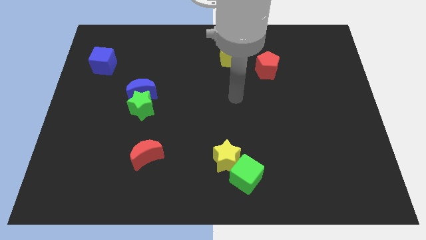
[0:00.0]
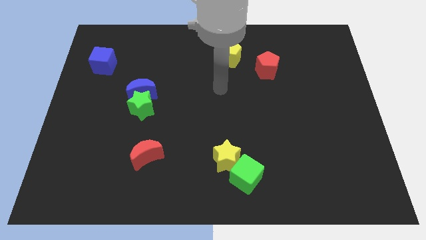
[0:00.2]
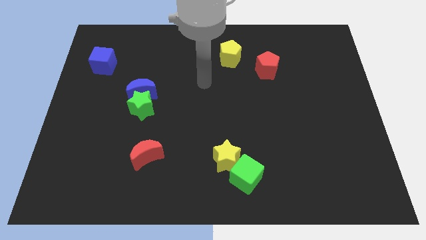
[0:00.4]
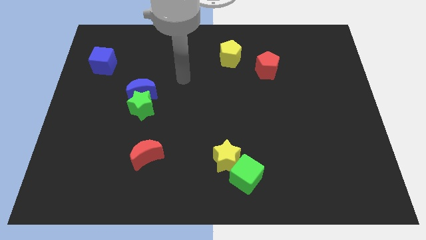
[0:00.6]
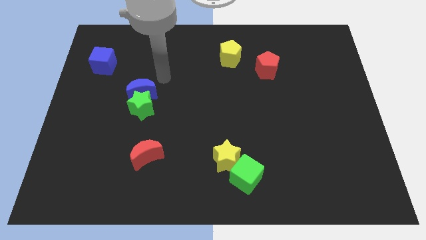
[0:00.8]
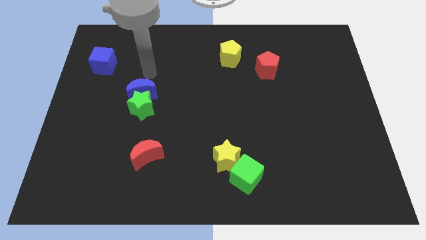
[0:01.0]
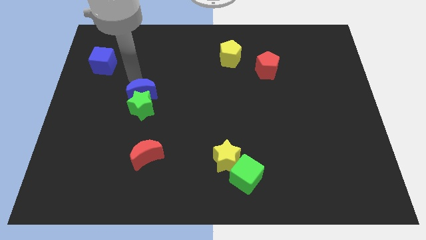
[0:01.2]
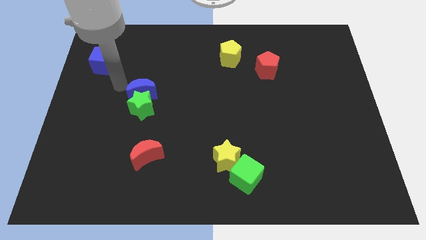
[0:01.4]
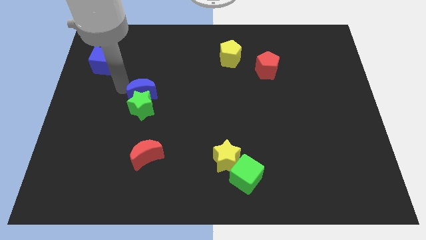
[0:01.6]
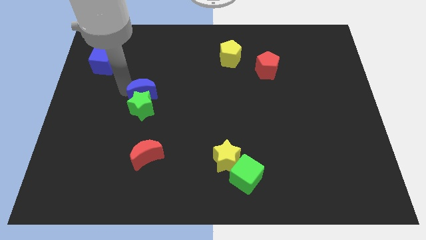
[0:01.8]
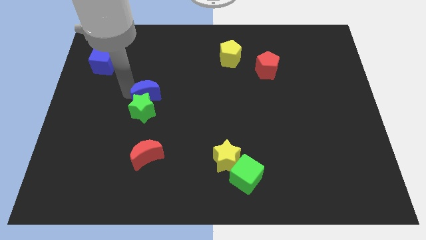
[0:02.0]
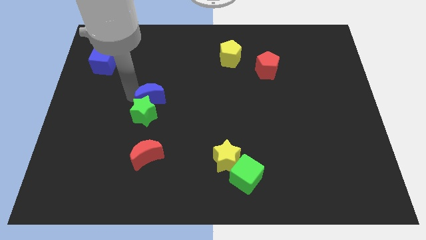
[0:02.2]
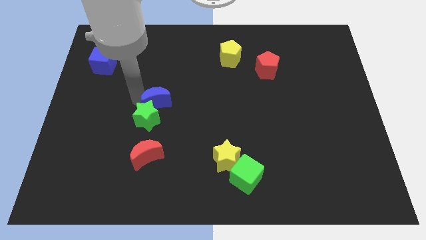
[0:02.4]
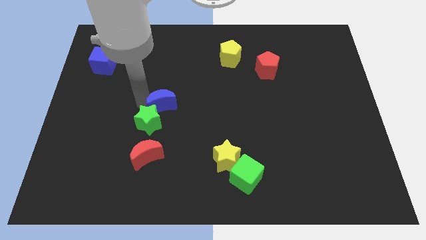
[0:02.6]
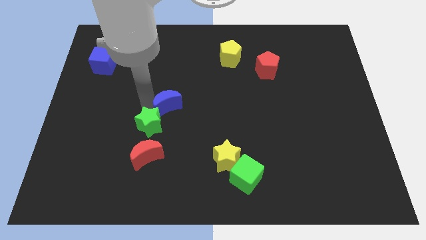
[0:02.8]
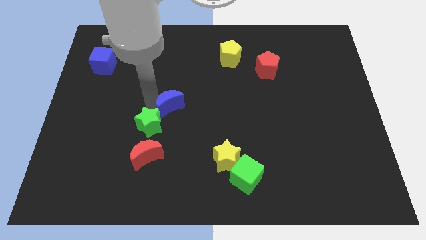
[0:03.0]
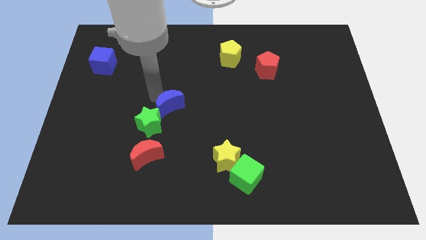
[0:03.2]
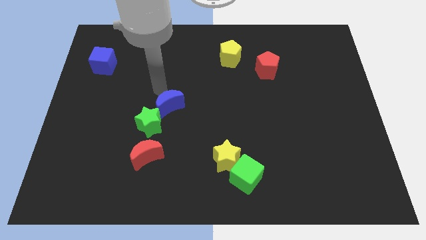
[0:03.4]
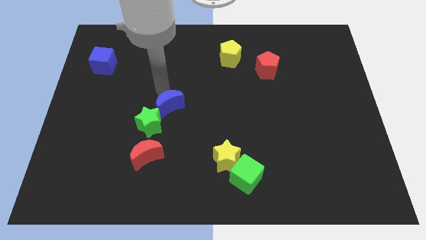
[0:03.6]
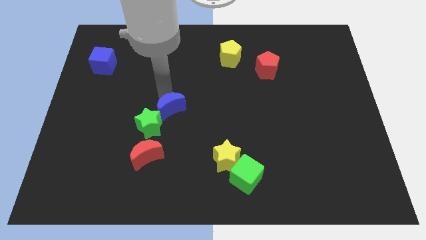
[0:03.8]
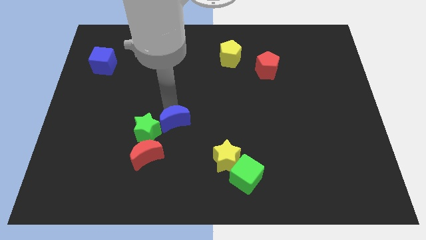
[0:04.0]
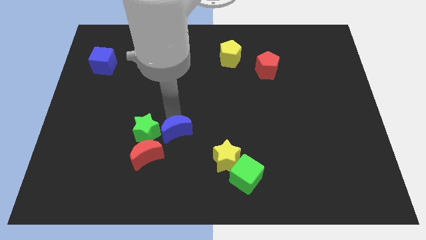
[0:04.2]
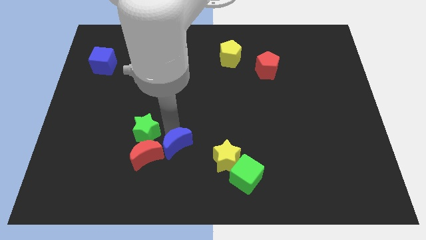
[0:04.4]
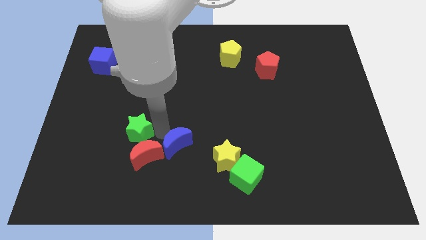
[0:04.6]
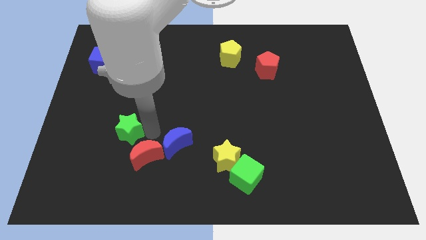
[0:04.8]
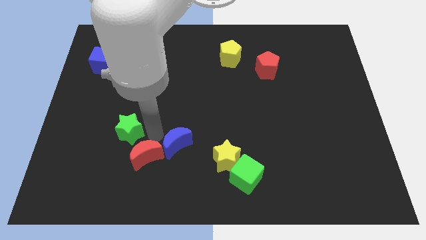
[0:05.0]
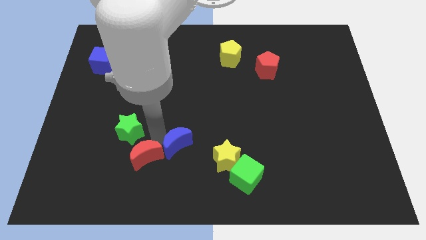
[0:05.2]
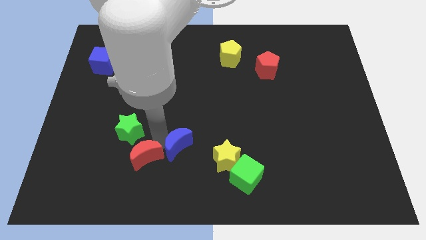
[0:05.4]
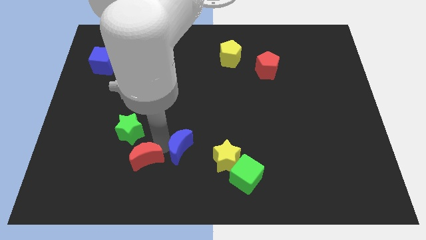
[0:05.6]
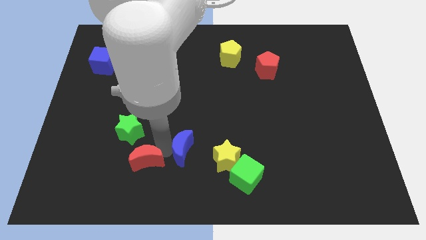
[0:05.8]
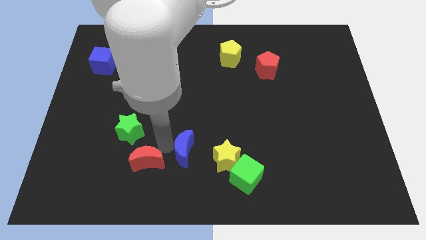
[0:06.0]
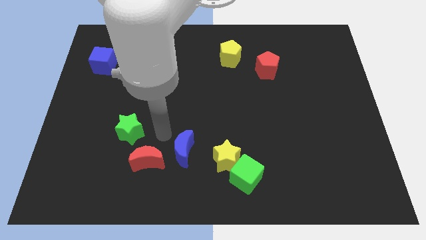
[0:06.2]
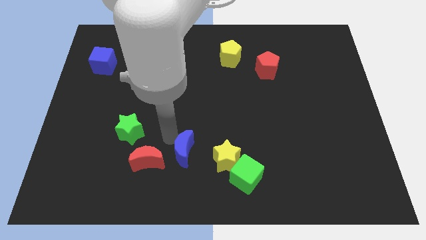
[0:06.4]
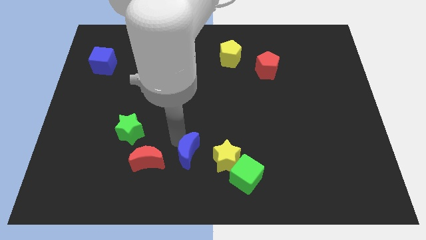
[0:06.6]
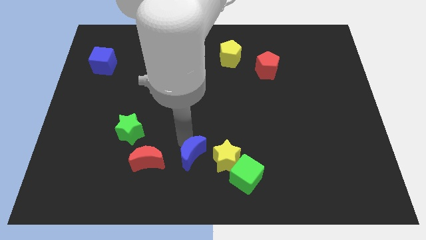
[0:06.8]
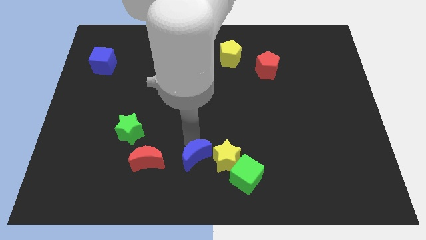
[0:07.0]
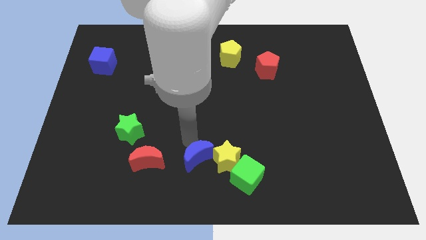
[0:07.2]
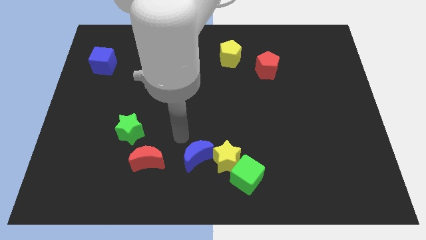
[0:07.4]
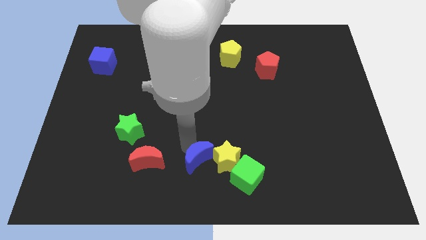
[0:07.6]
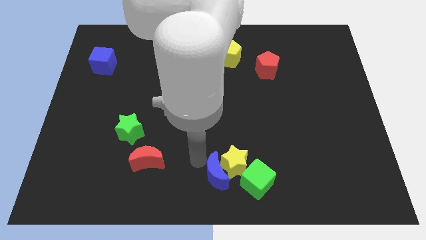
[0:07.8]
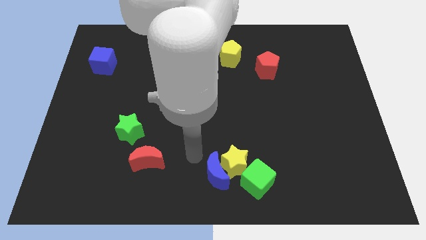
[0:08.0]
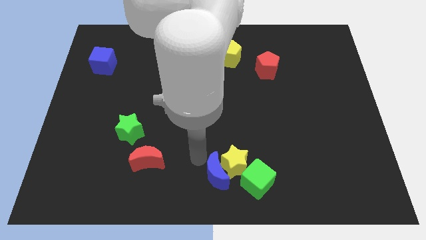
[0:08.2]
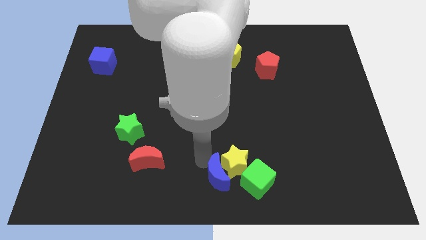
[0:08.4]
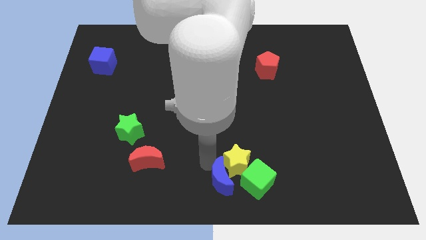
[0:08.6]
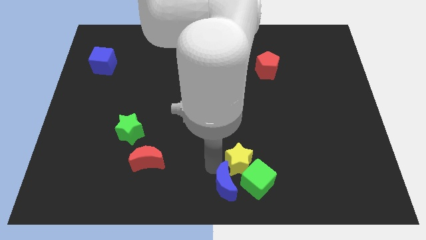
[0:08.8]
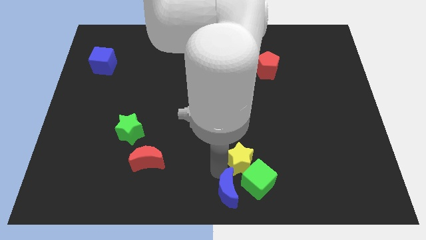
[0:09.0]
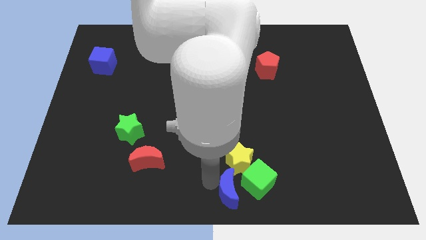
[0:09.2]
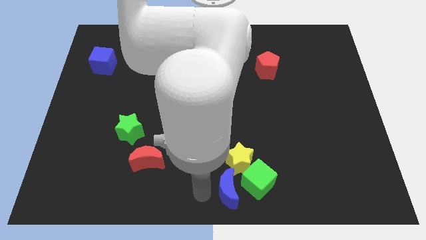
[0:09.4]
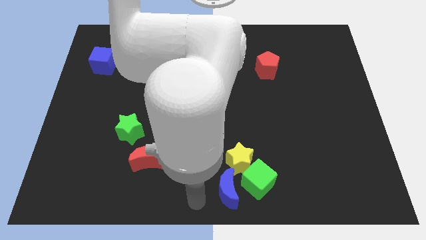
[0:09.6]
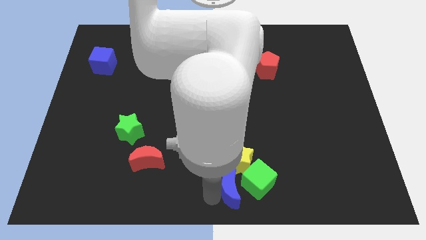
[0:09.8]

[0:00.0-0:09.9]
slide the blue moon towards the green cube

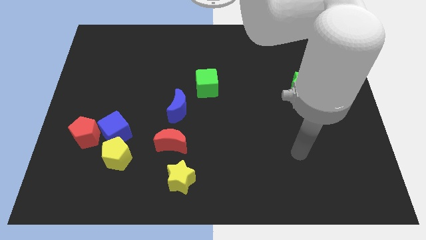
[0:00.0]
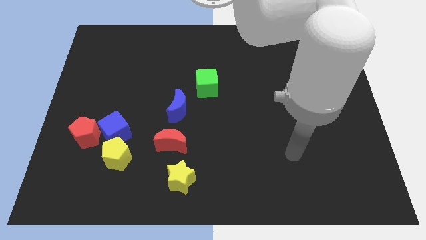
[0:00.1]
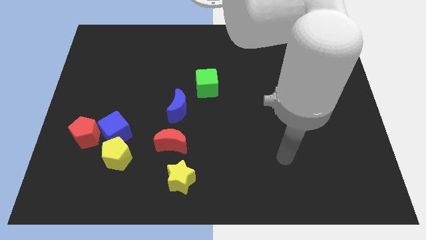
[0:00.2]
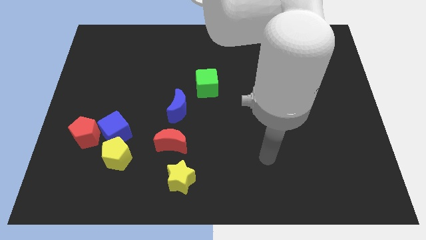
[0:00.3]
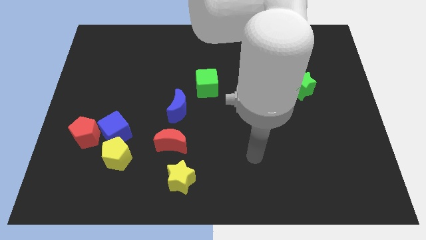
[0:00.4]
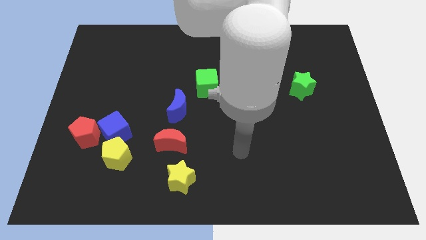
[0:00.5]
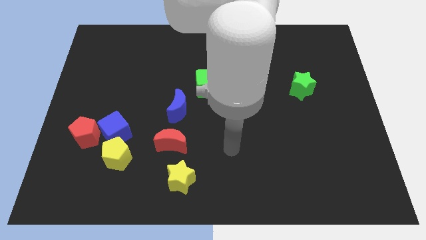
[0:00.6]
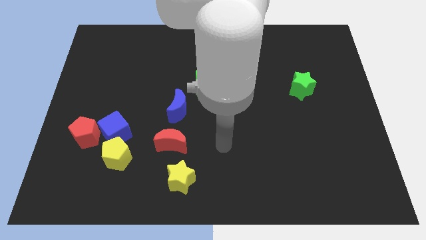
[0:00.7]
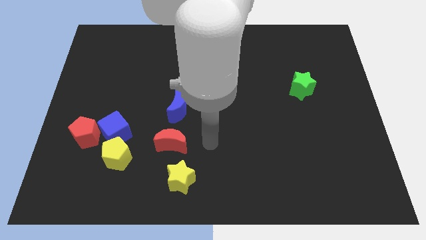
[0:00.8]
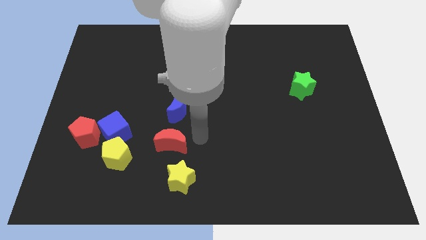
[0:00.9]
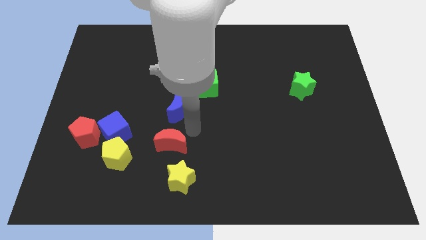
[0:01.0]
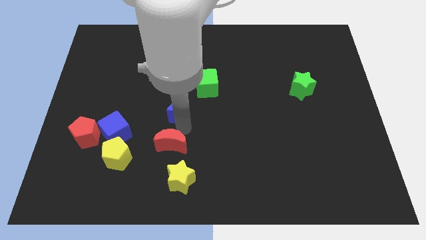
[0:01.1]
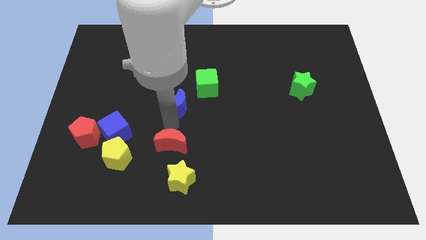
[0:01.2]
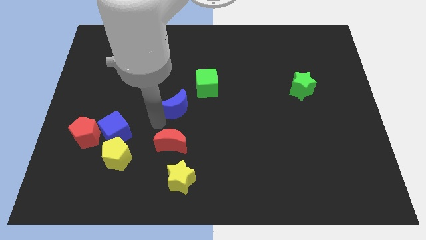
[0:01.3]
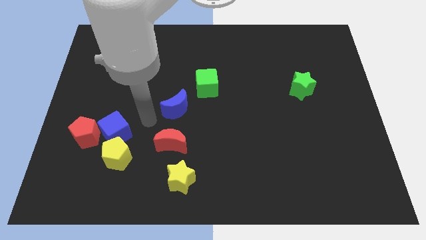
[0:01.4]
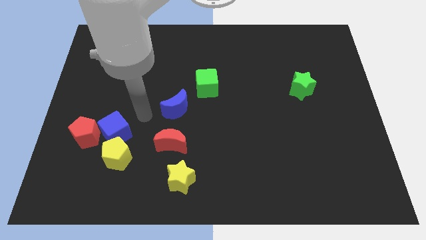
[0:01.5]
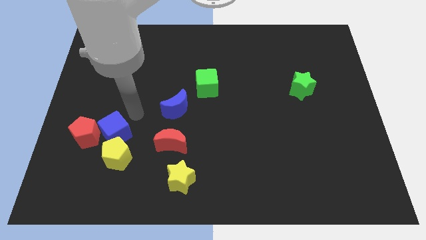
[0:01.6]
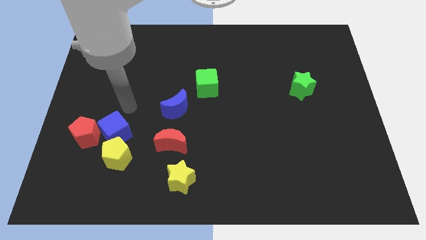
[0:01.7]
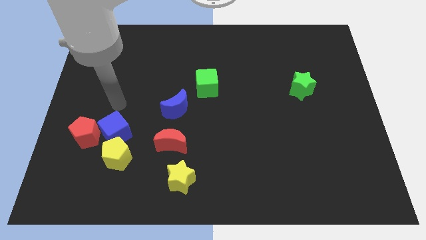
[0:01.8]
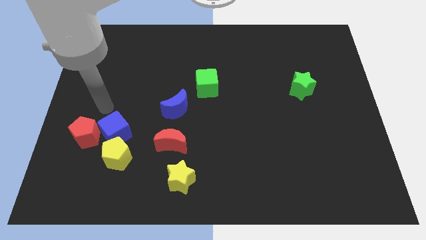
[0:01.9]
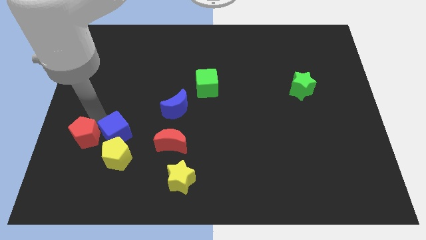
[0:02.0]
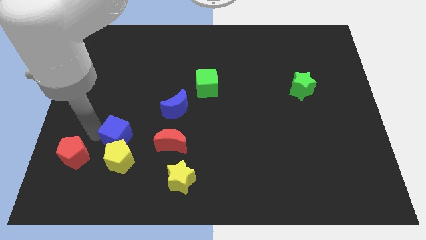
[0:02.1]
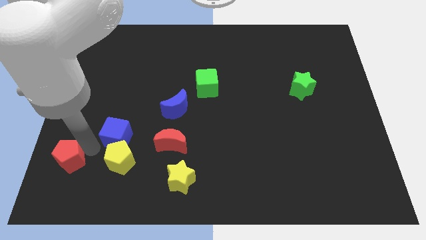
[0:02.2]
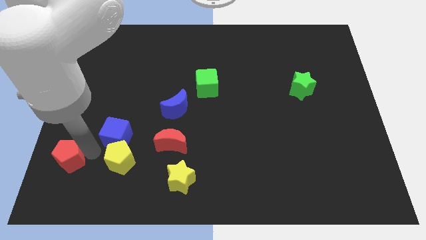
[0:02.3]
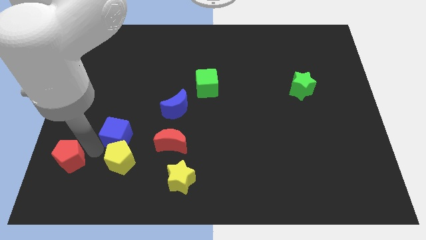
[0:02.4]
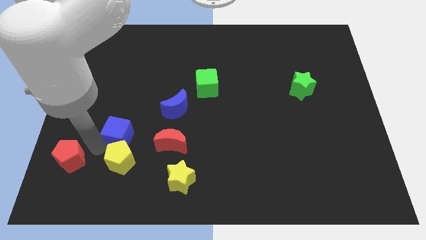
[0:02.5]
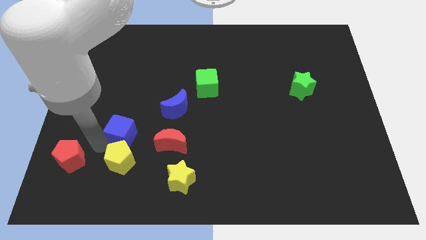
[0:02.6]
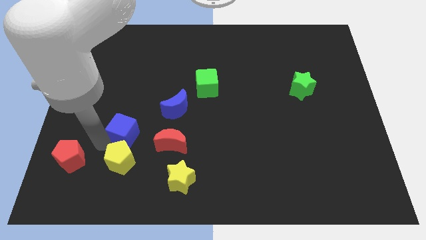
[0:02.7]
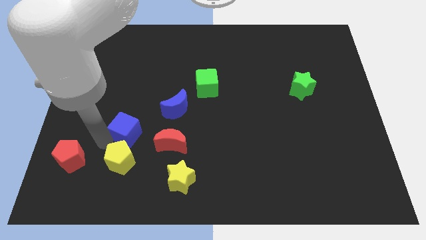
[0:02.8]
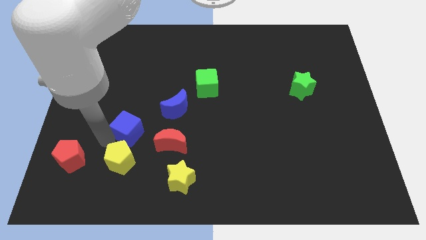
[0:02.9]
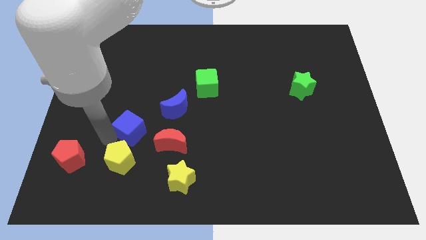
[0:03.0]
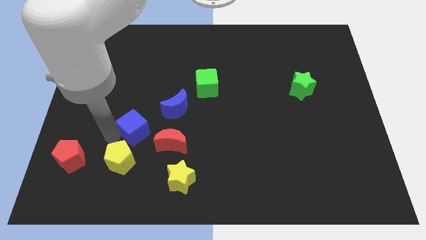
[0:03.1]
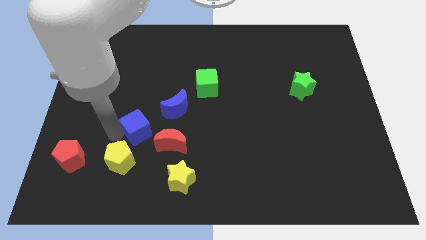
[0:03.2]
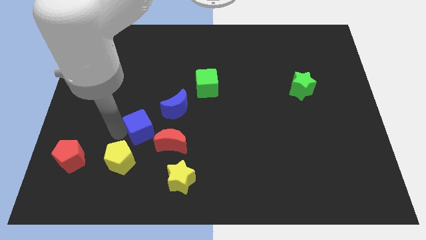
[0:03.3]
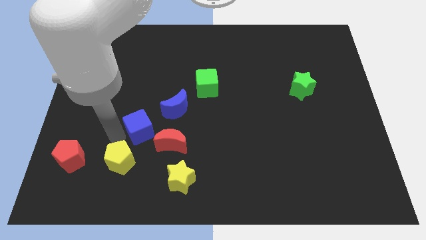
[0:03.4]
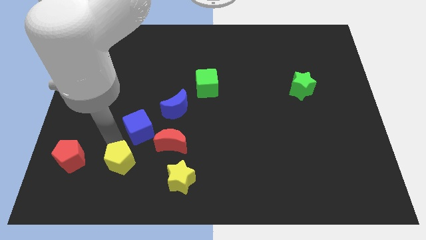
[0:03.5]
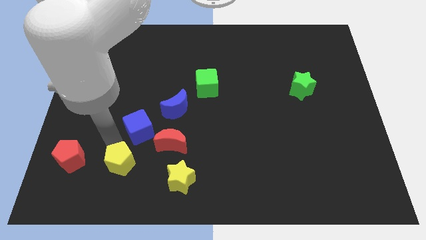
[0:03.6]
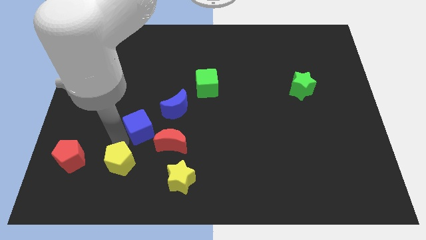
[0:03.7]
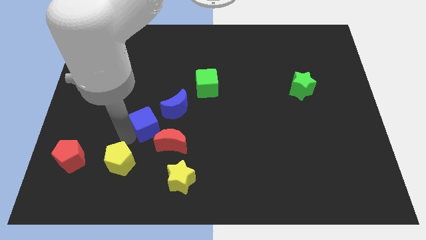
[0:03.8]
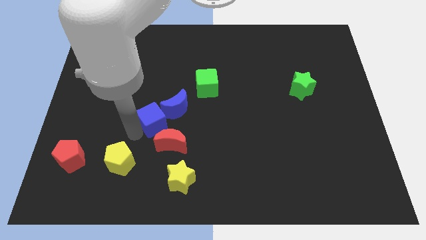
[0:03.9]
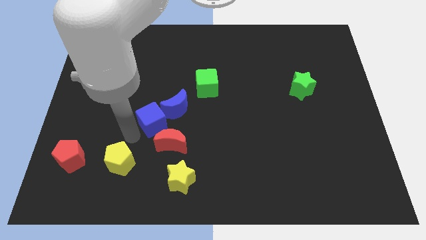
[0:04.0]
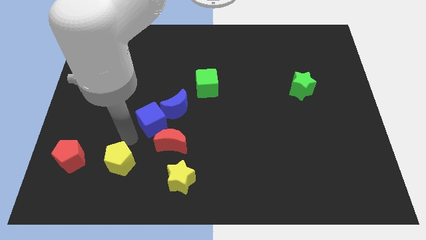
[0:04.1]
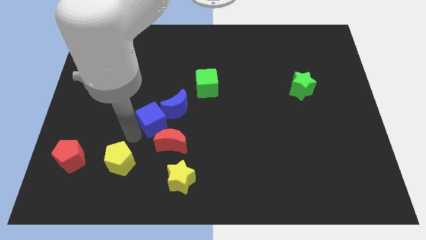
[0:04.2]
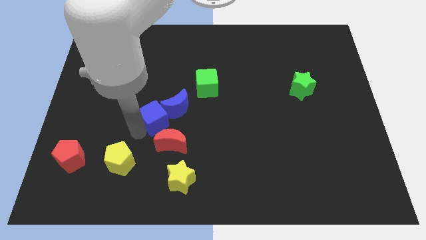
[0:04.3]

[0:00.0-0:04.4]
put the blue cube close to the blue moon
